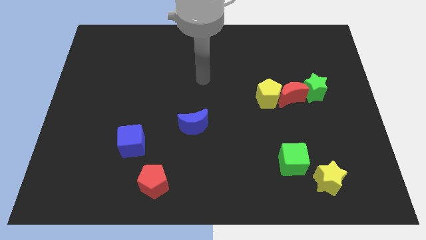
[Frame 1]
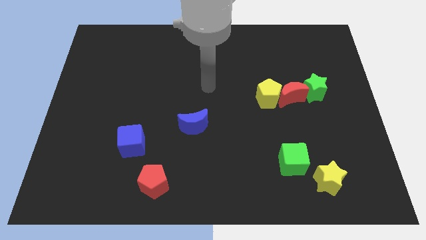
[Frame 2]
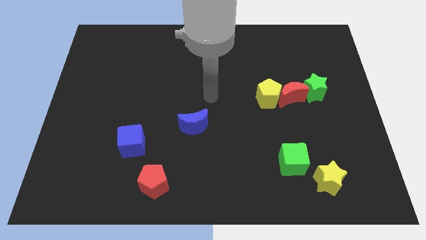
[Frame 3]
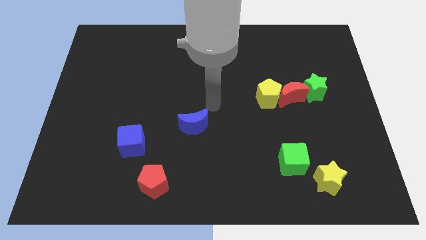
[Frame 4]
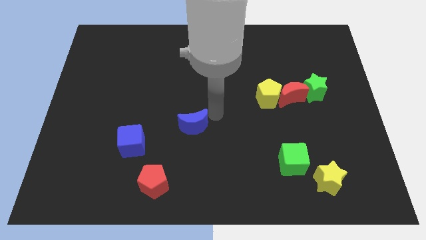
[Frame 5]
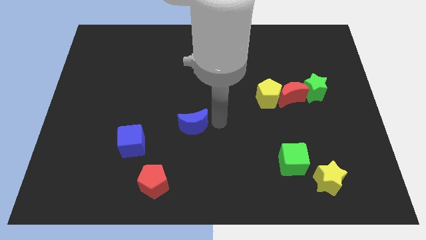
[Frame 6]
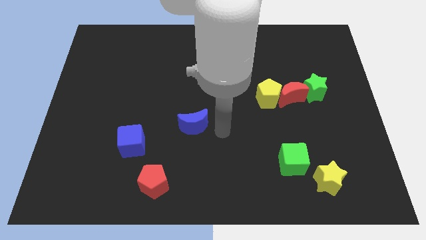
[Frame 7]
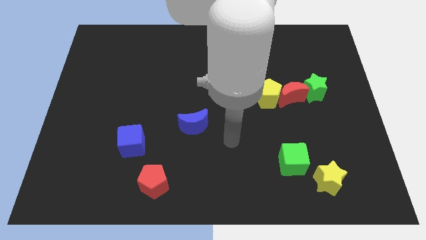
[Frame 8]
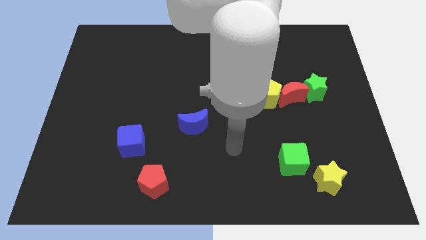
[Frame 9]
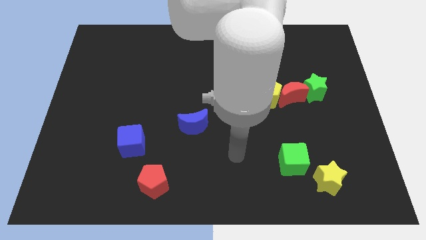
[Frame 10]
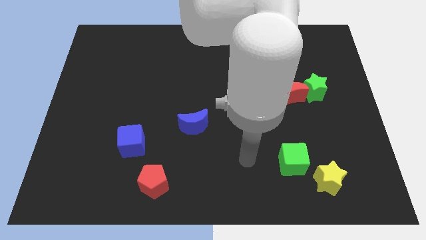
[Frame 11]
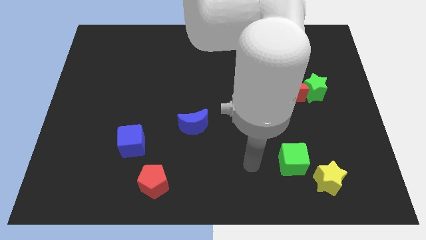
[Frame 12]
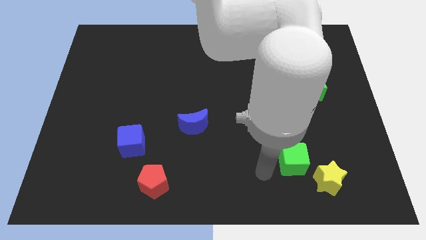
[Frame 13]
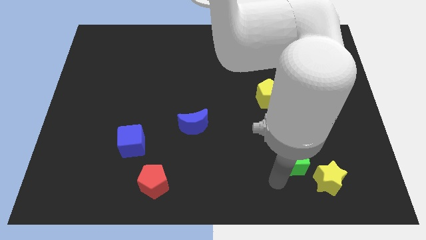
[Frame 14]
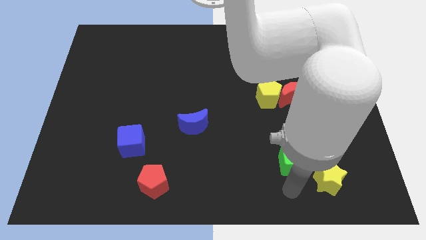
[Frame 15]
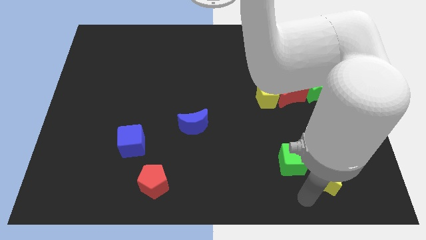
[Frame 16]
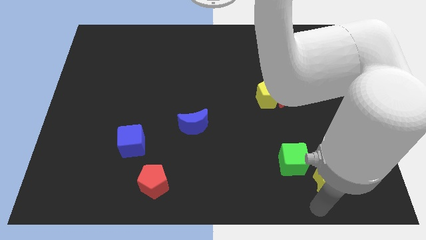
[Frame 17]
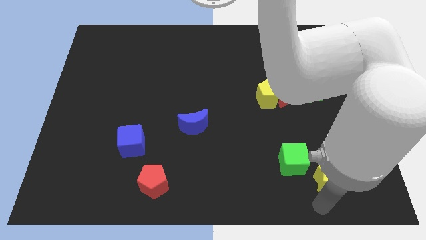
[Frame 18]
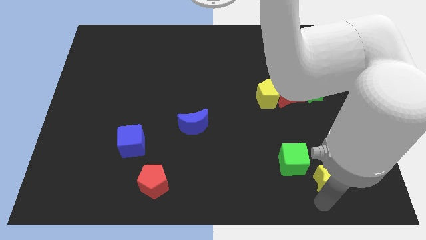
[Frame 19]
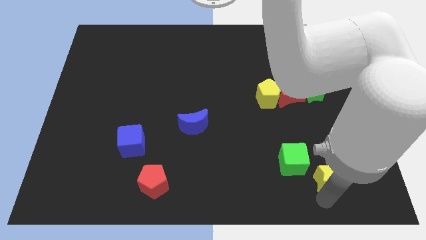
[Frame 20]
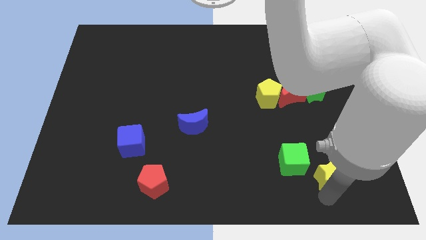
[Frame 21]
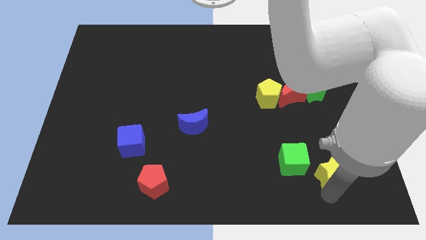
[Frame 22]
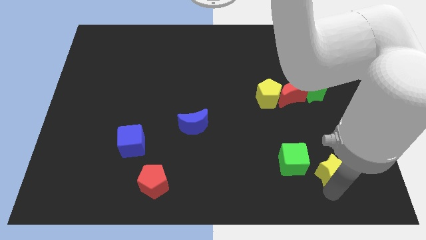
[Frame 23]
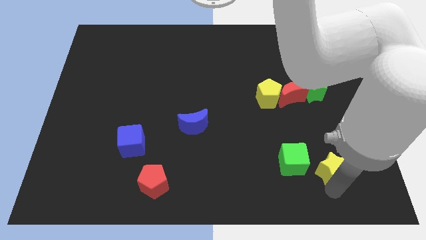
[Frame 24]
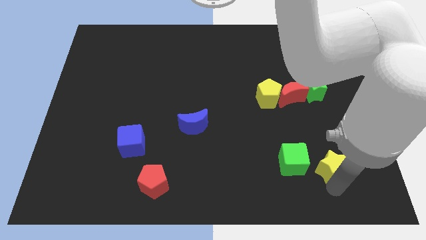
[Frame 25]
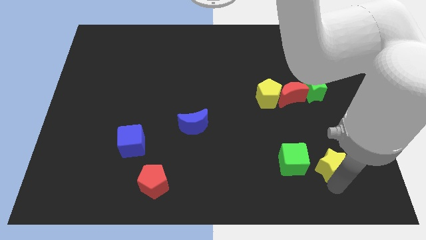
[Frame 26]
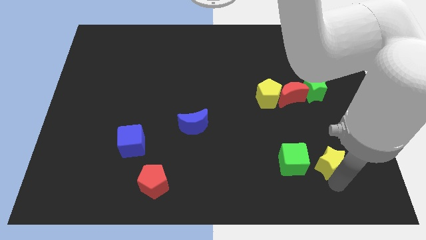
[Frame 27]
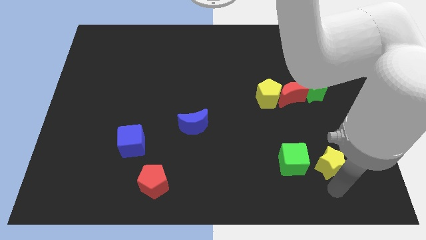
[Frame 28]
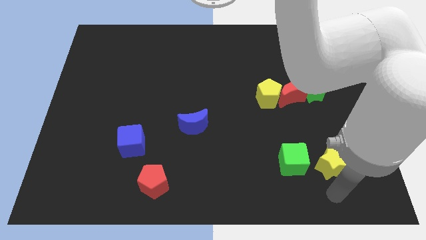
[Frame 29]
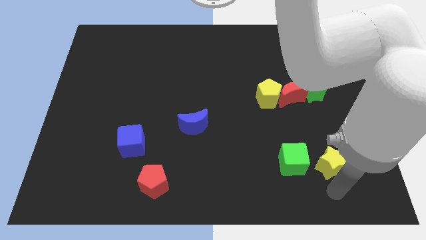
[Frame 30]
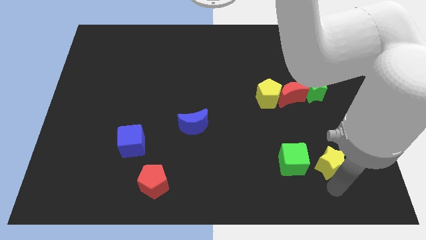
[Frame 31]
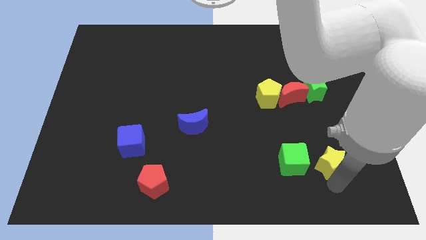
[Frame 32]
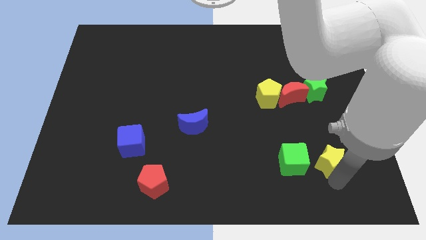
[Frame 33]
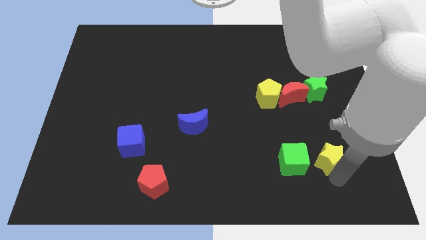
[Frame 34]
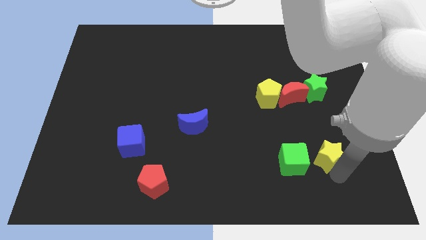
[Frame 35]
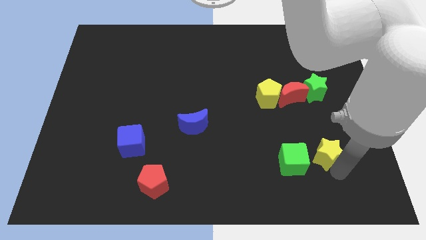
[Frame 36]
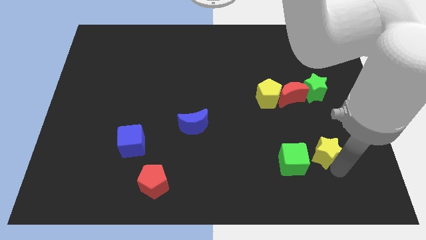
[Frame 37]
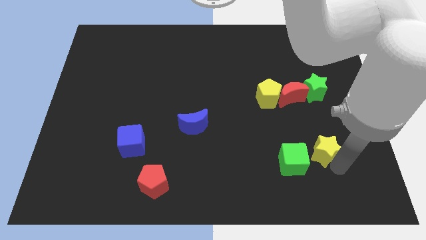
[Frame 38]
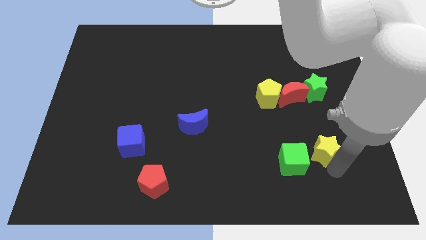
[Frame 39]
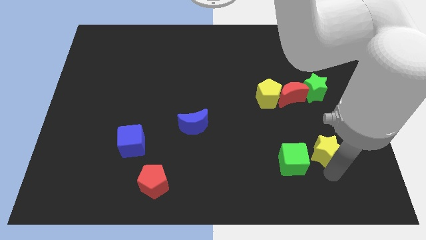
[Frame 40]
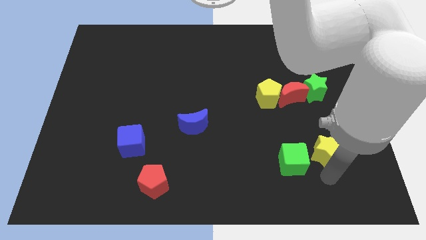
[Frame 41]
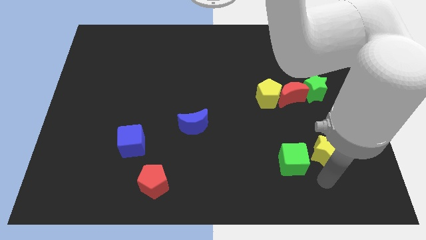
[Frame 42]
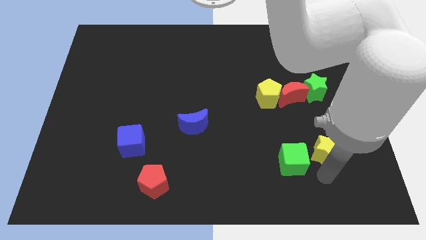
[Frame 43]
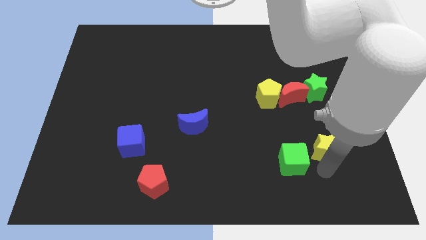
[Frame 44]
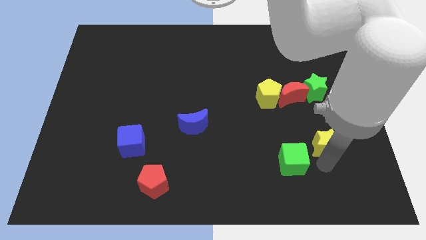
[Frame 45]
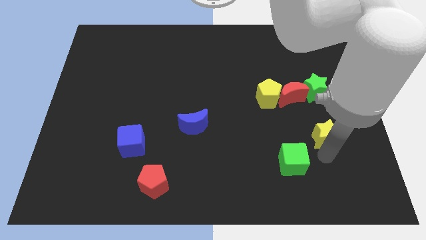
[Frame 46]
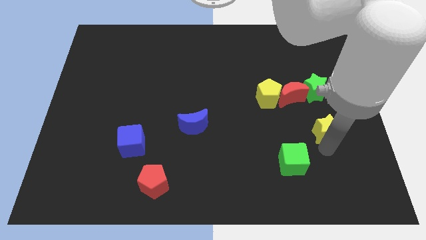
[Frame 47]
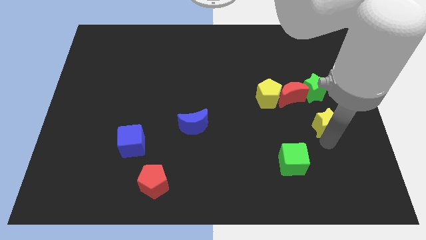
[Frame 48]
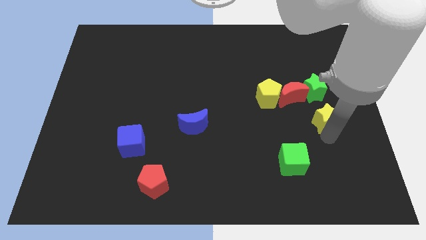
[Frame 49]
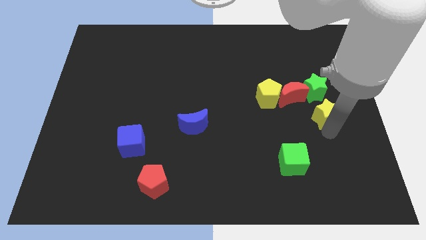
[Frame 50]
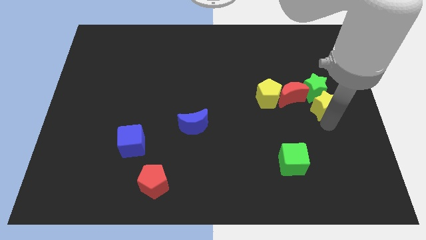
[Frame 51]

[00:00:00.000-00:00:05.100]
put the yellow star towards the green star

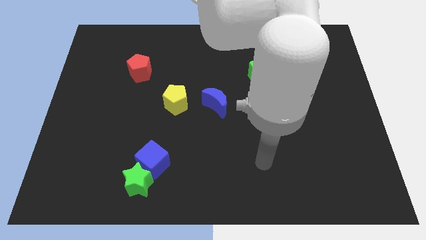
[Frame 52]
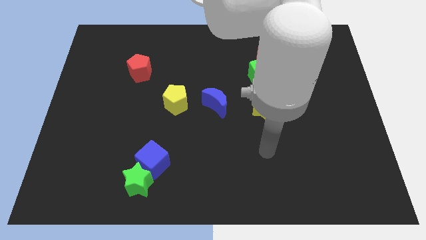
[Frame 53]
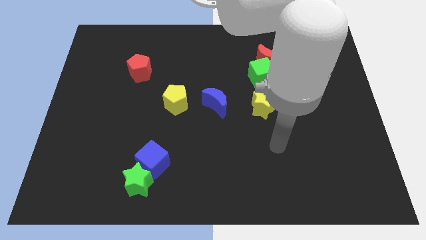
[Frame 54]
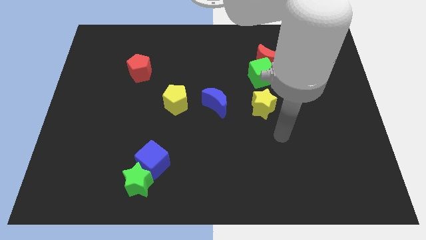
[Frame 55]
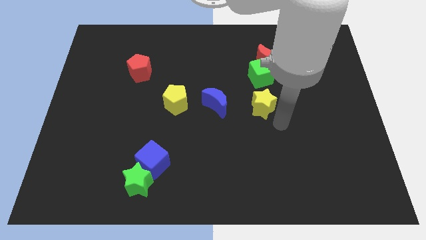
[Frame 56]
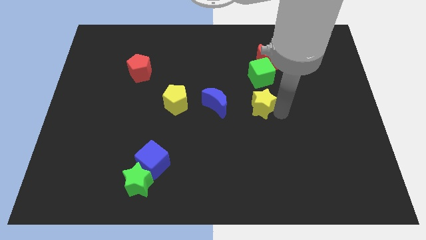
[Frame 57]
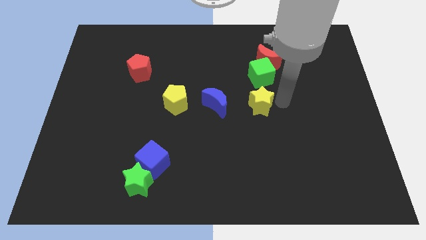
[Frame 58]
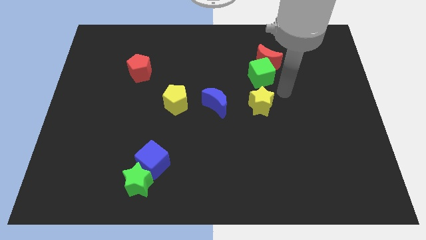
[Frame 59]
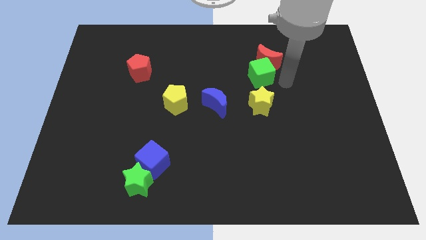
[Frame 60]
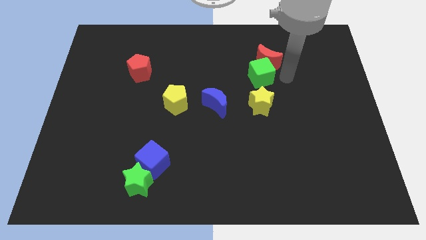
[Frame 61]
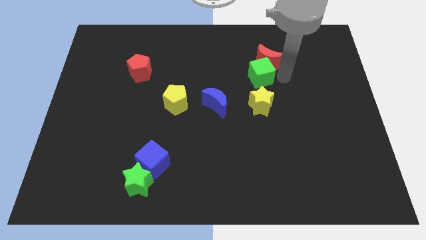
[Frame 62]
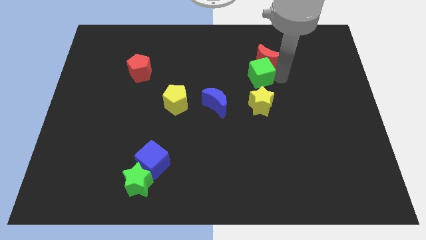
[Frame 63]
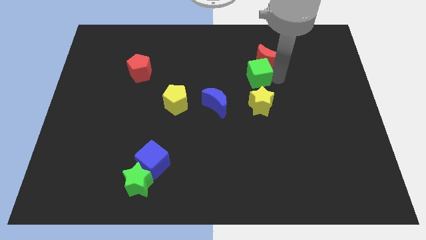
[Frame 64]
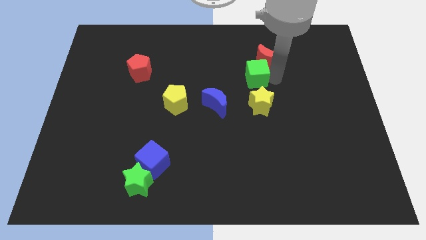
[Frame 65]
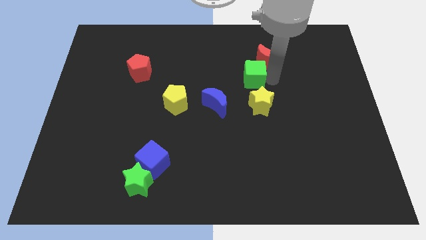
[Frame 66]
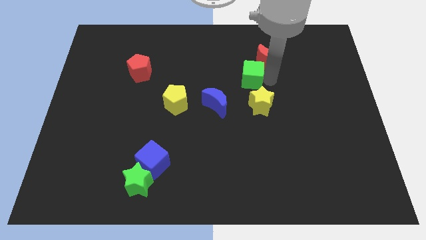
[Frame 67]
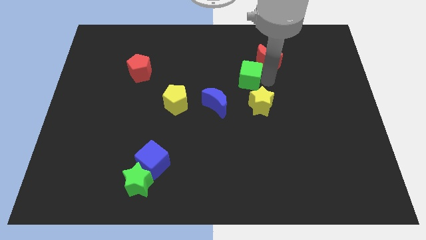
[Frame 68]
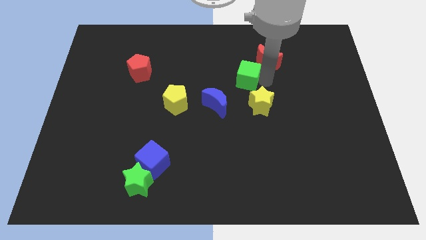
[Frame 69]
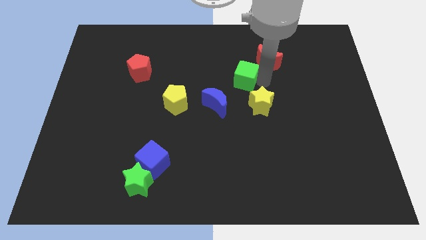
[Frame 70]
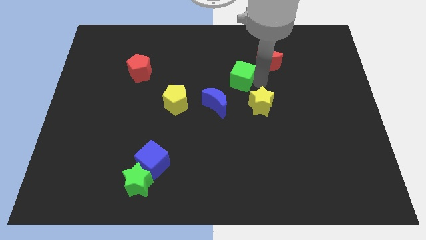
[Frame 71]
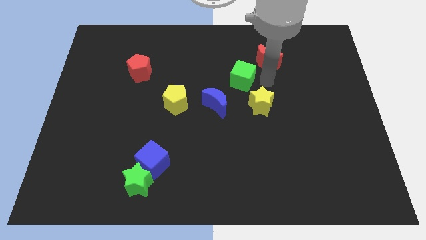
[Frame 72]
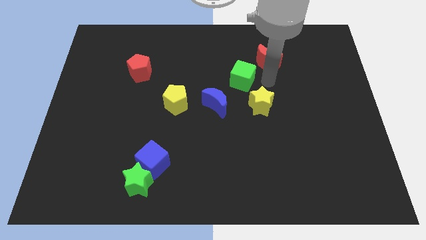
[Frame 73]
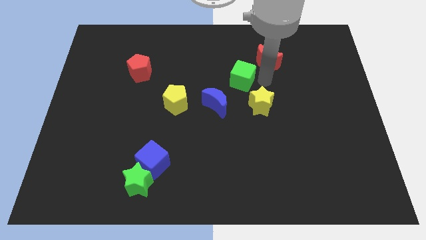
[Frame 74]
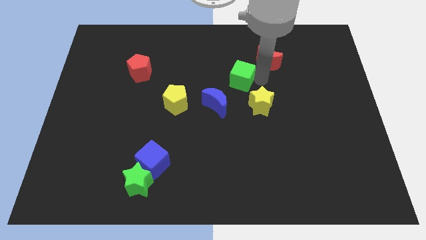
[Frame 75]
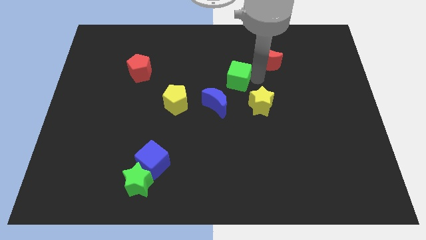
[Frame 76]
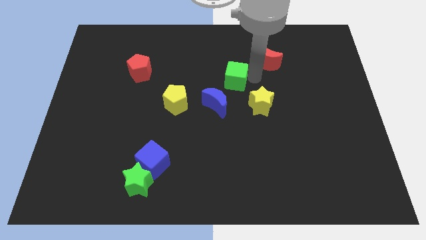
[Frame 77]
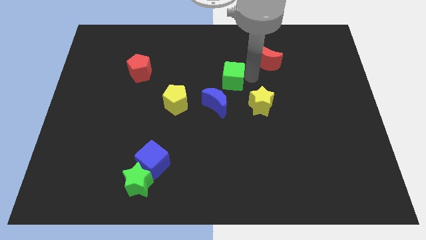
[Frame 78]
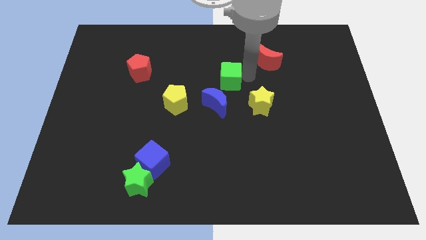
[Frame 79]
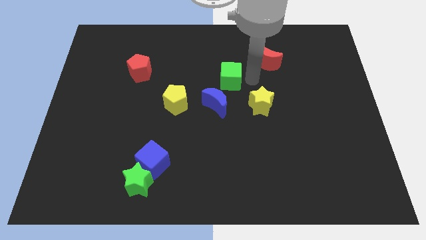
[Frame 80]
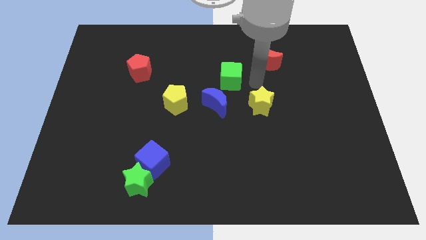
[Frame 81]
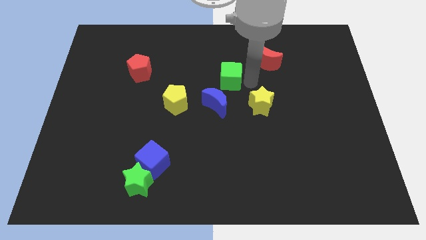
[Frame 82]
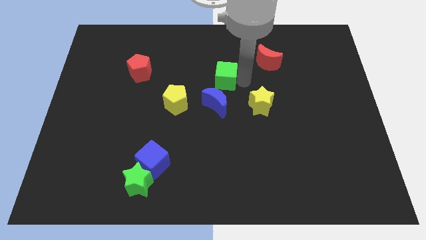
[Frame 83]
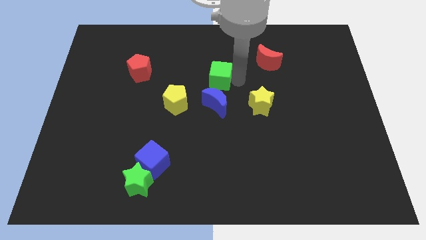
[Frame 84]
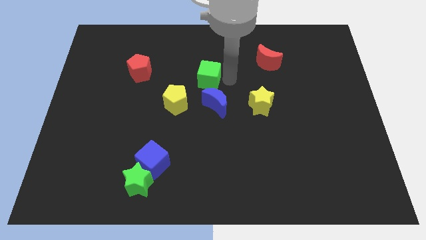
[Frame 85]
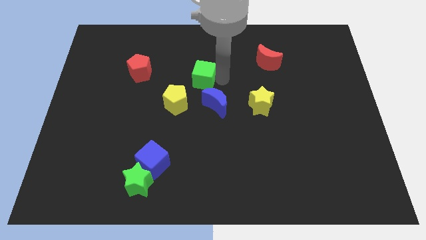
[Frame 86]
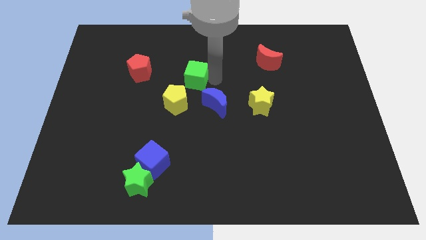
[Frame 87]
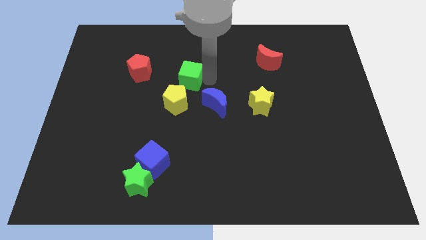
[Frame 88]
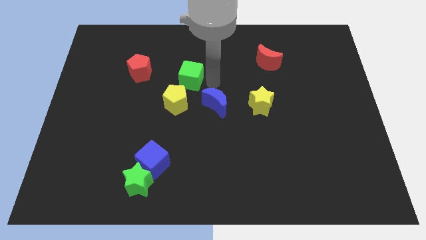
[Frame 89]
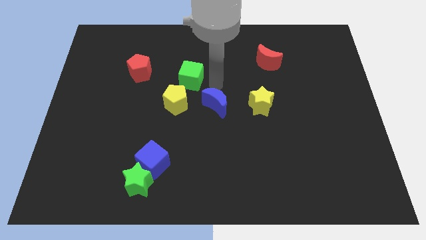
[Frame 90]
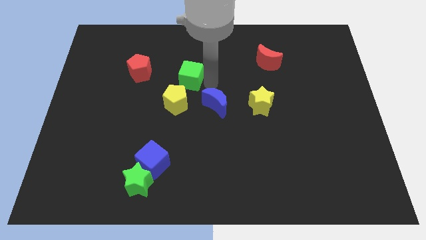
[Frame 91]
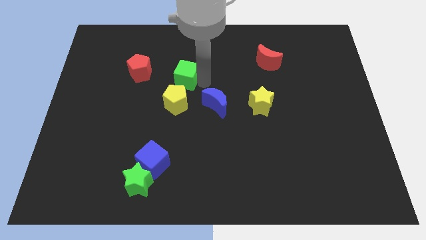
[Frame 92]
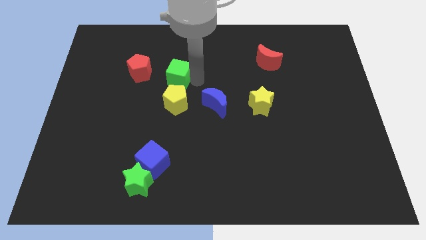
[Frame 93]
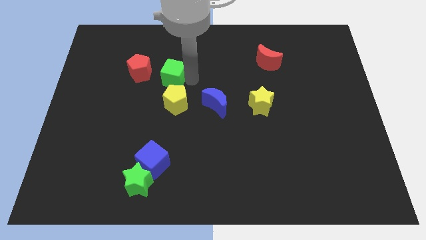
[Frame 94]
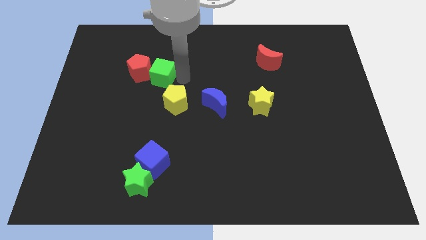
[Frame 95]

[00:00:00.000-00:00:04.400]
put the green cube close to the red pentagon
